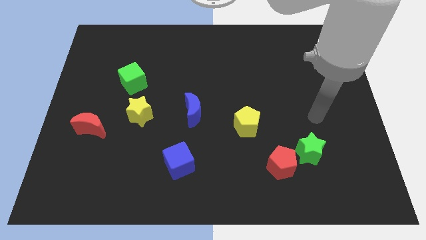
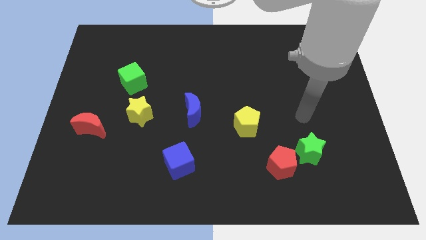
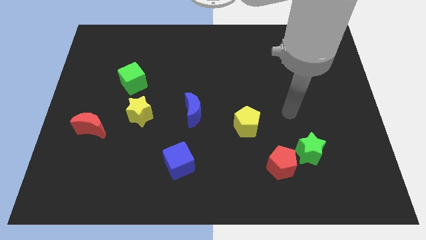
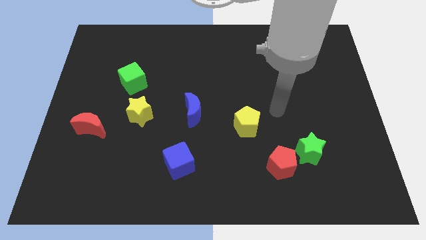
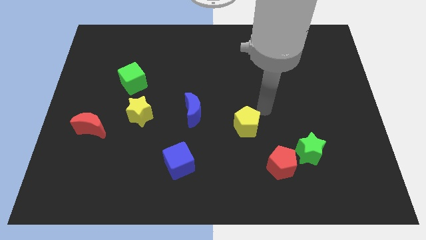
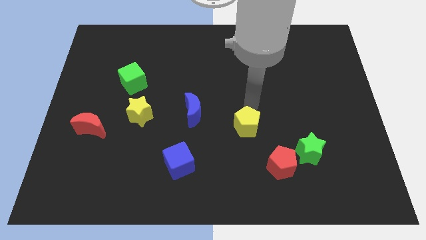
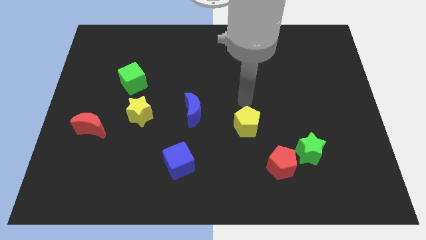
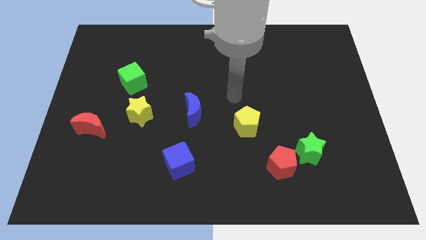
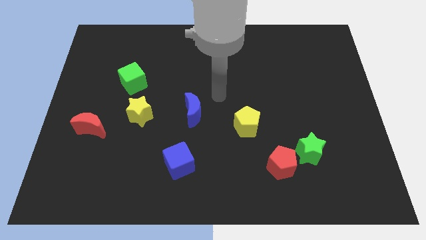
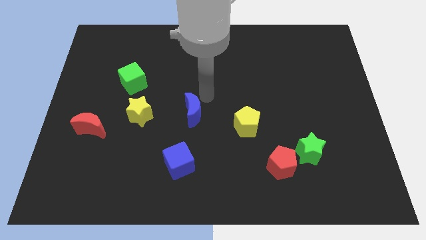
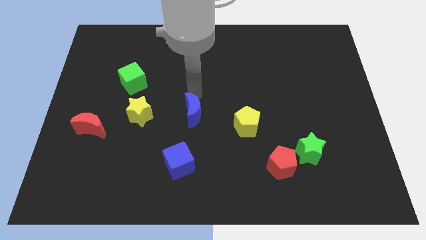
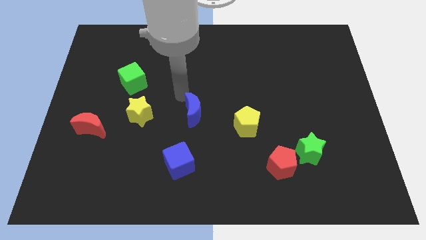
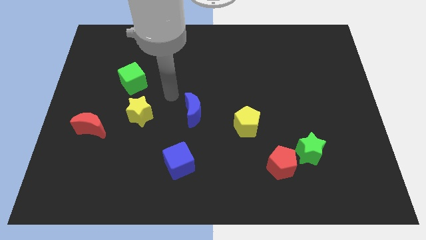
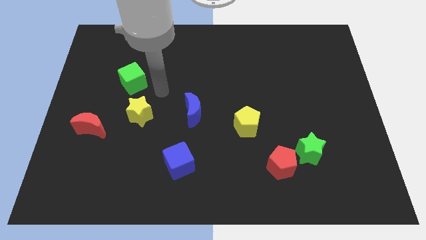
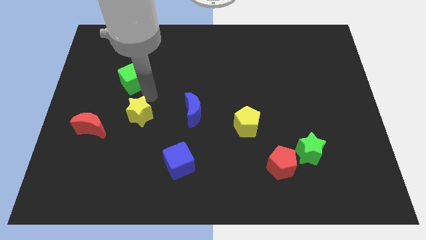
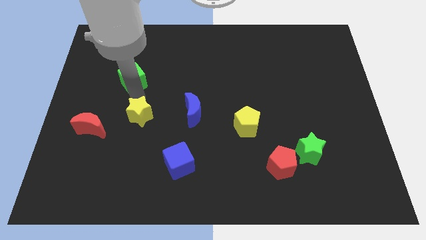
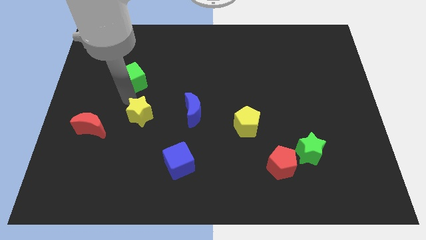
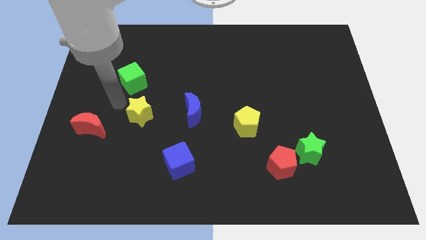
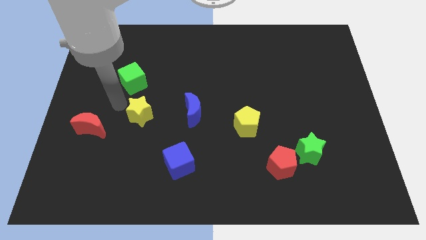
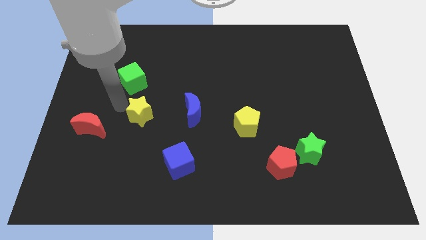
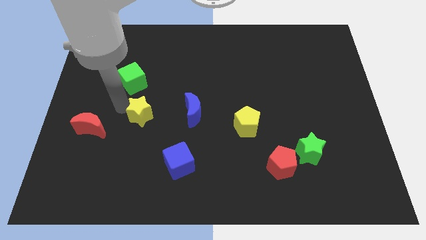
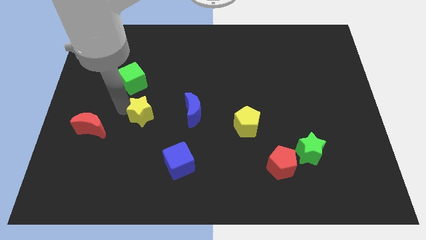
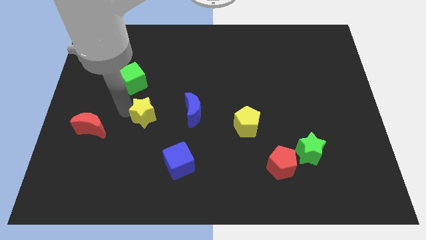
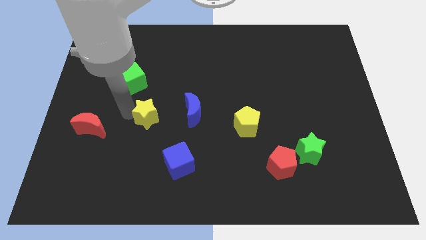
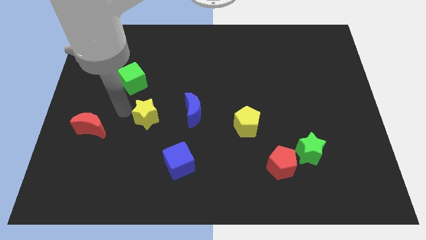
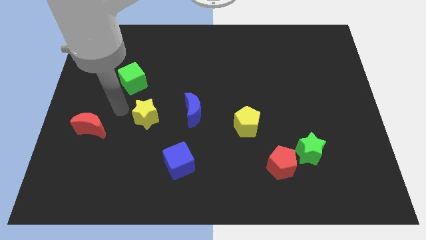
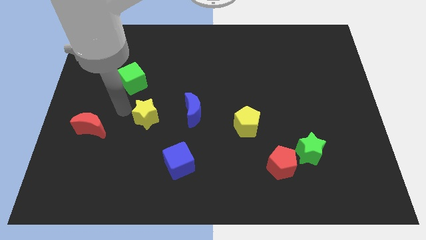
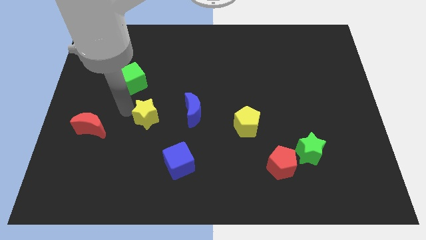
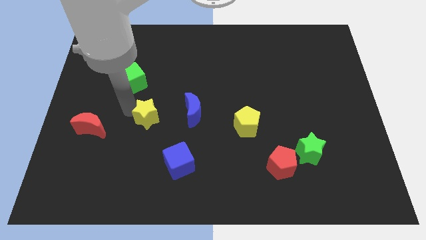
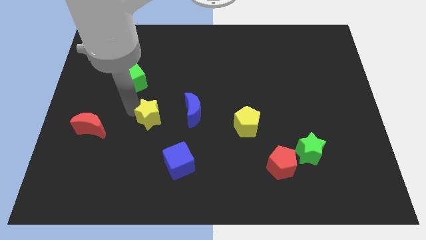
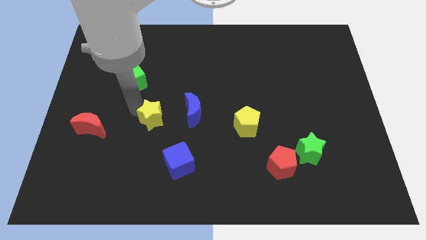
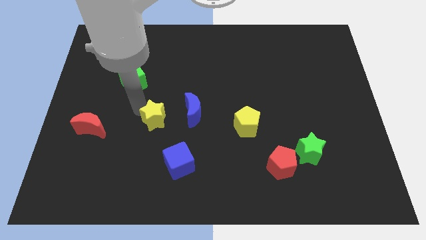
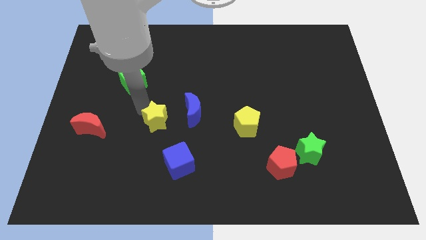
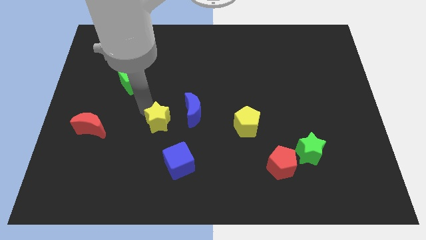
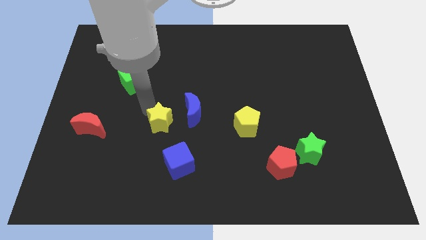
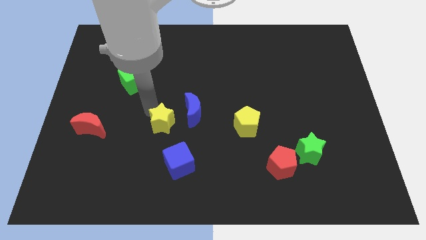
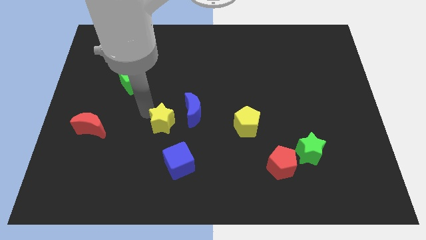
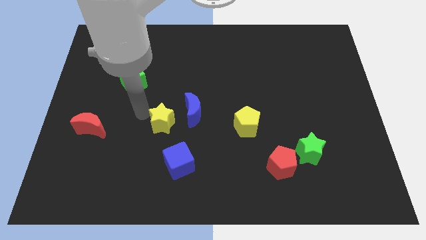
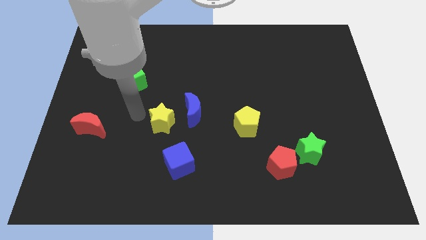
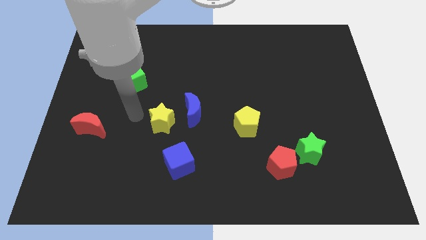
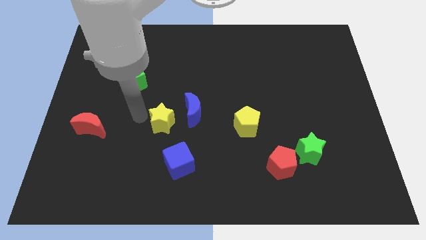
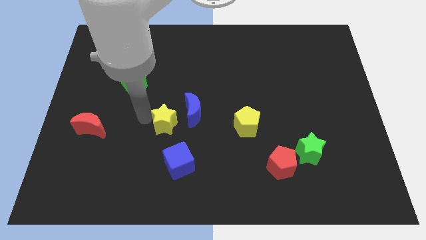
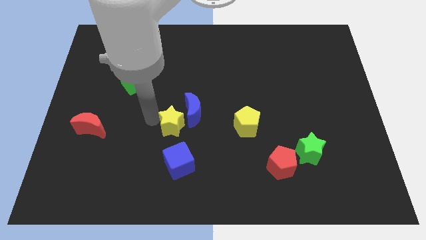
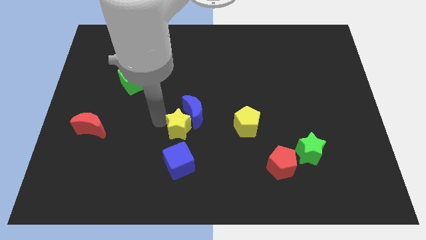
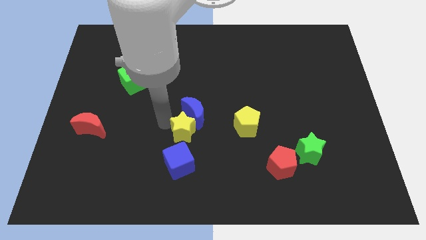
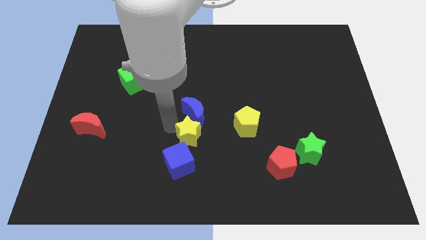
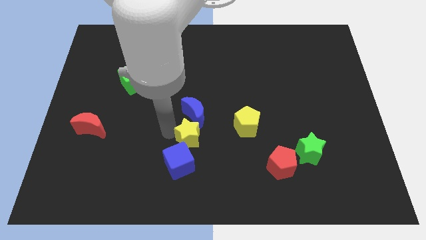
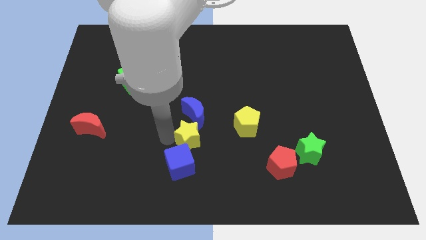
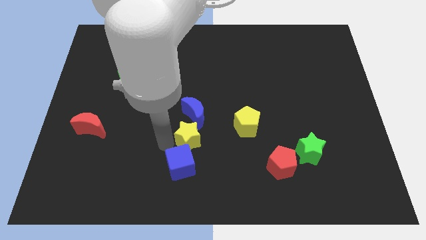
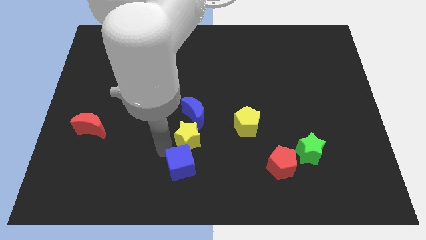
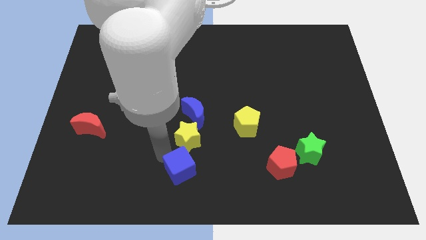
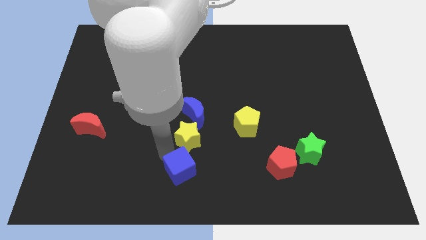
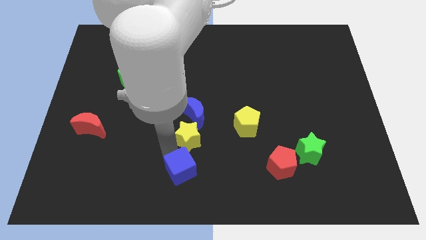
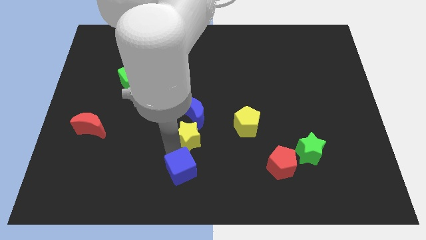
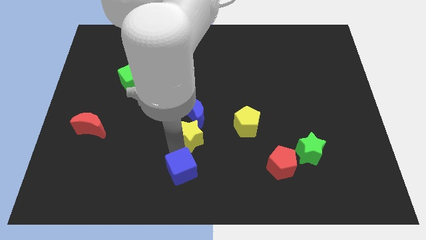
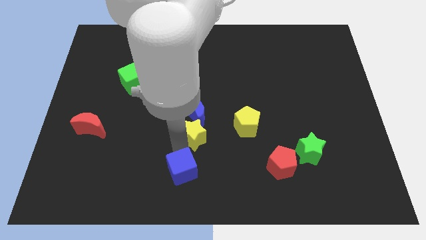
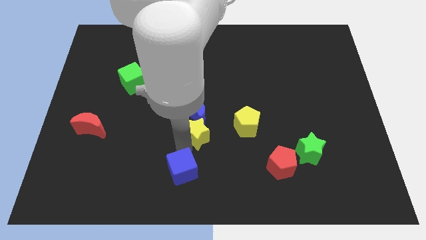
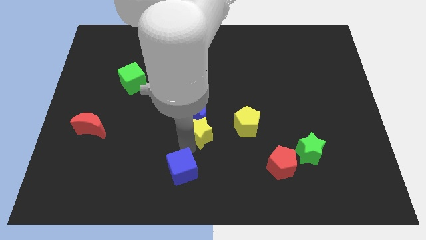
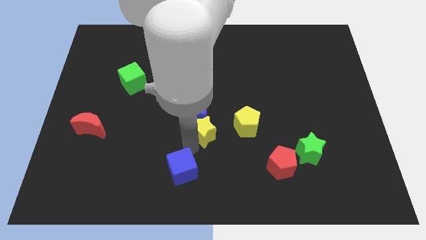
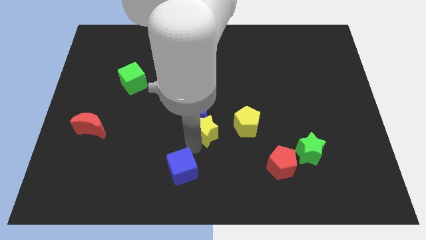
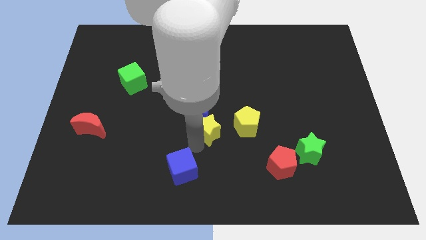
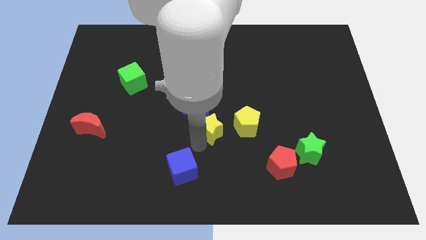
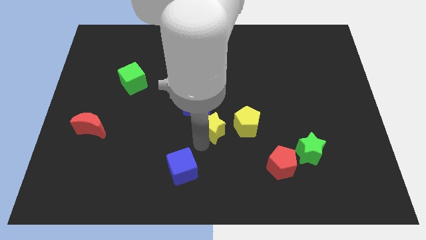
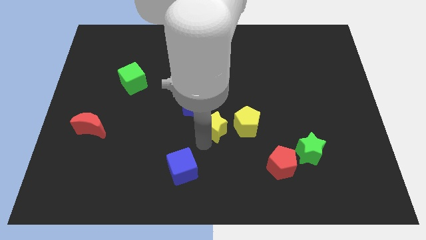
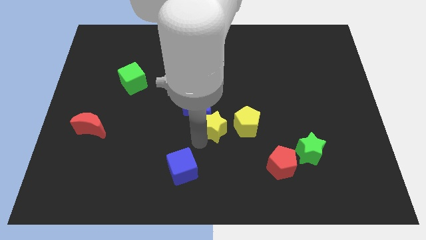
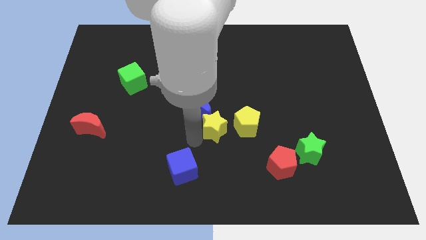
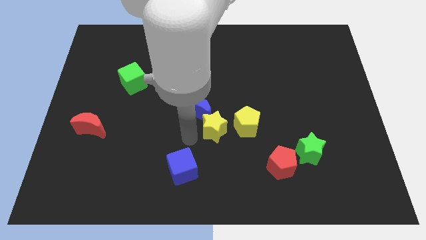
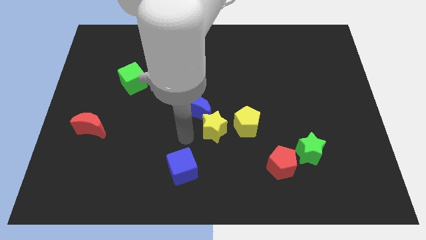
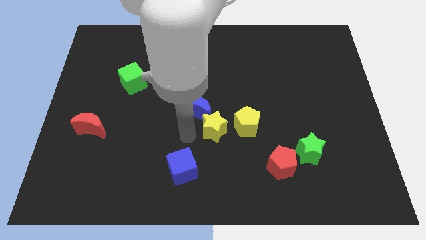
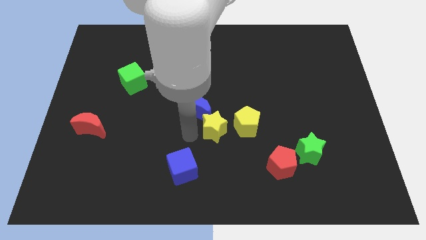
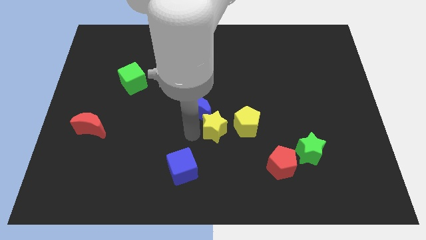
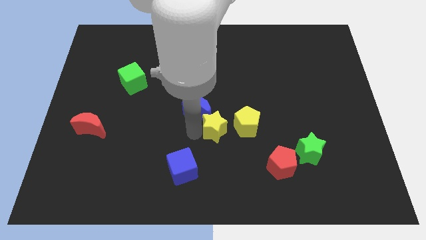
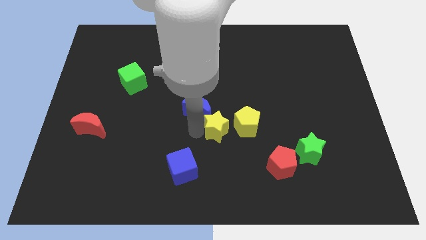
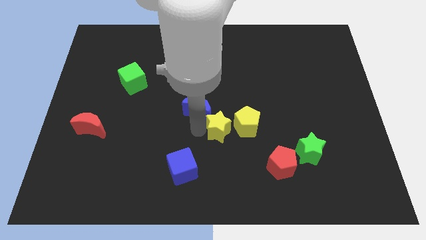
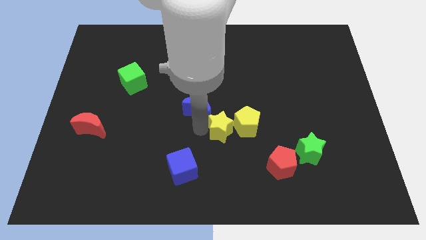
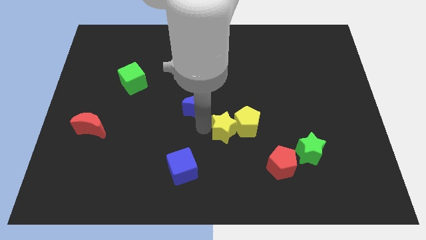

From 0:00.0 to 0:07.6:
move the yellow star close to the yellow pentagon
